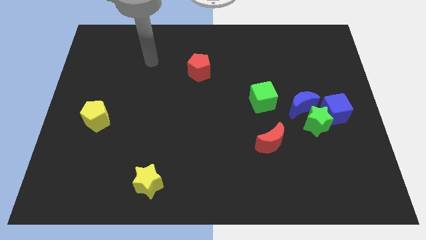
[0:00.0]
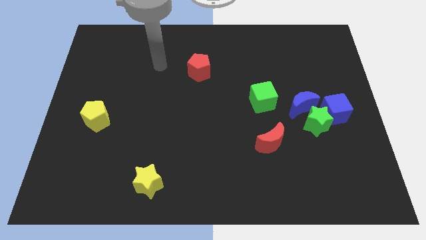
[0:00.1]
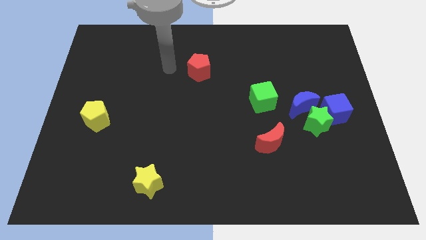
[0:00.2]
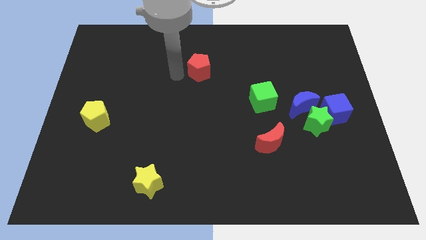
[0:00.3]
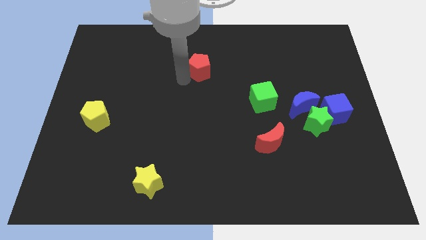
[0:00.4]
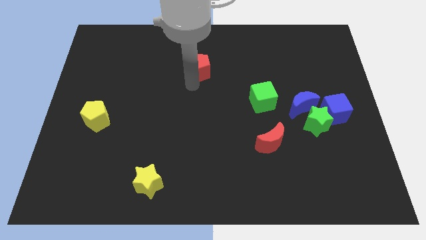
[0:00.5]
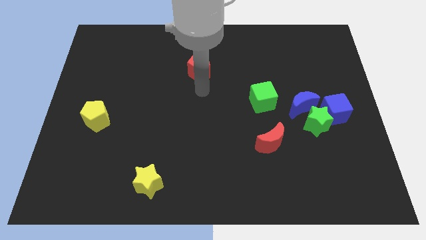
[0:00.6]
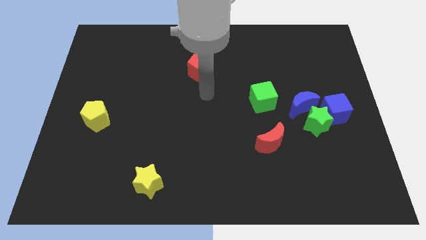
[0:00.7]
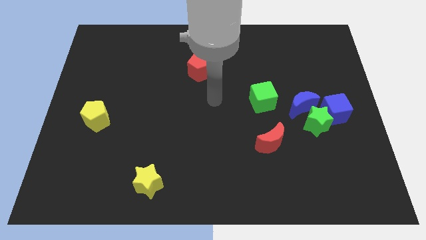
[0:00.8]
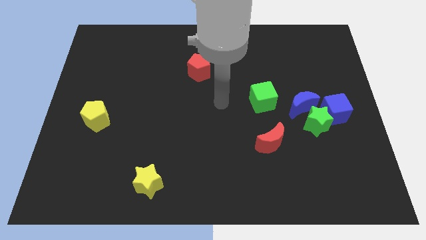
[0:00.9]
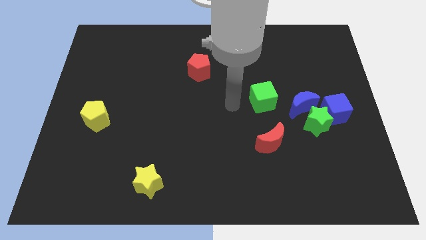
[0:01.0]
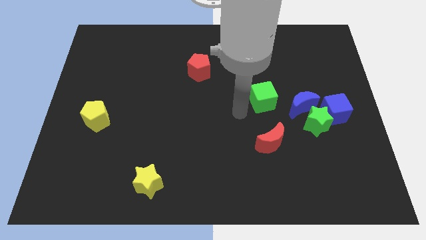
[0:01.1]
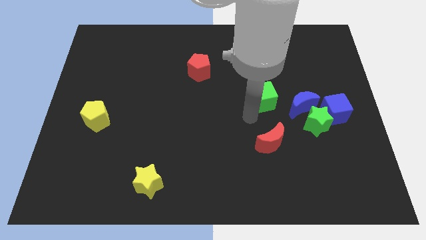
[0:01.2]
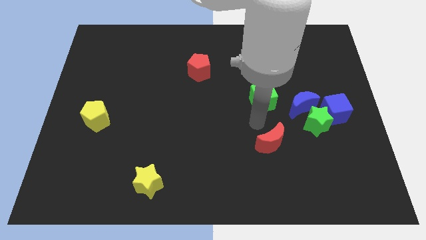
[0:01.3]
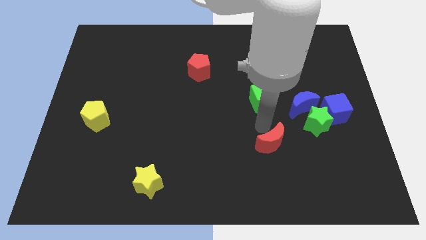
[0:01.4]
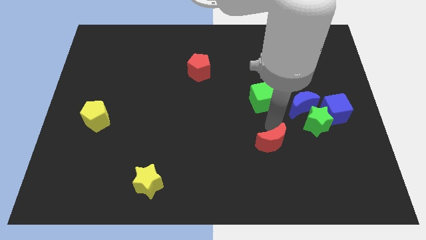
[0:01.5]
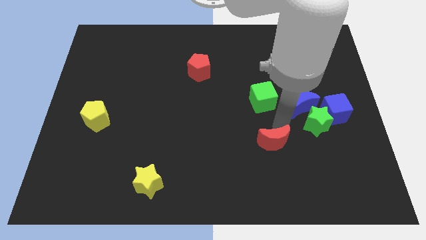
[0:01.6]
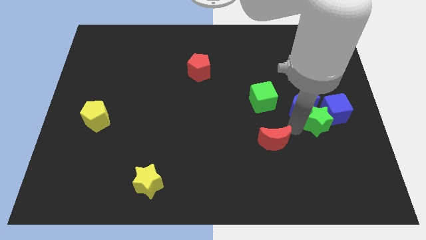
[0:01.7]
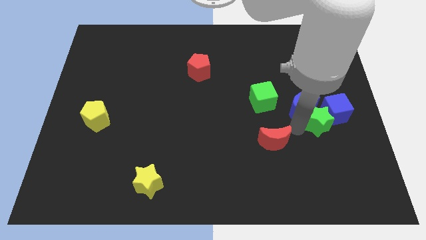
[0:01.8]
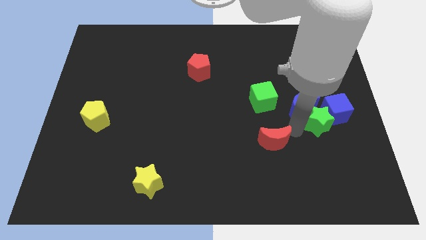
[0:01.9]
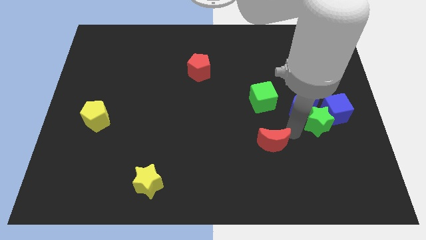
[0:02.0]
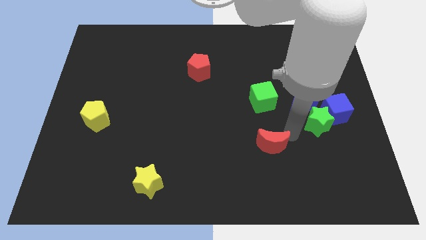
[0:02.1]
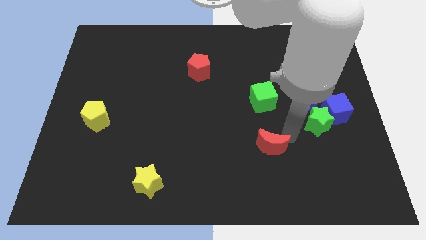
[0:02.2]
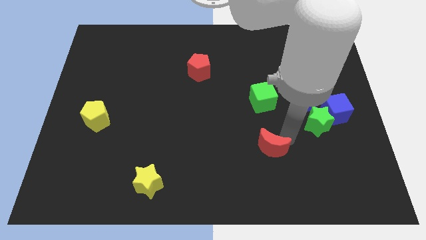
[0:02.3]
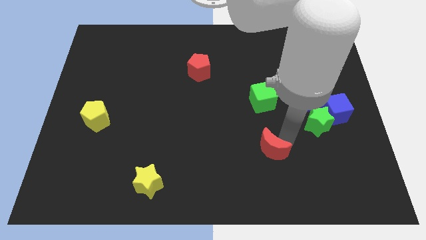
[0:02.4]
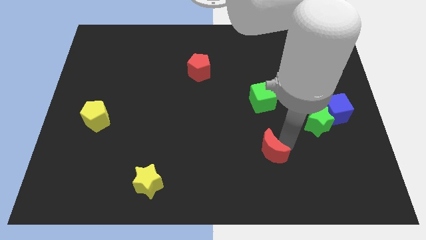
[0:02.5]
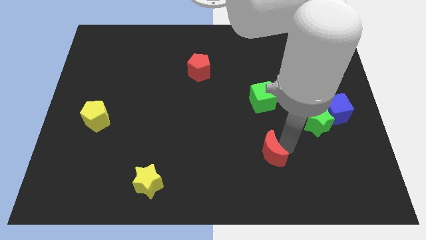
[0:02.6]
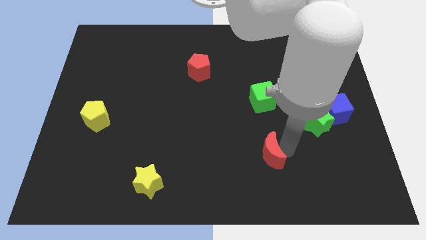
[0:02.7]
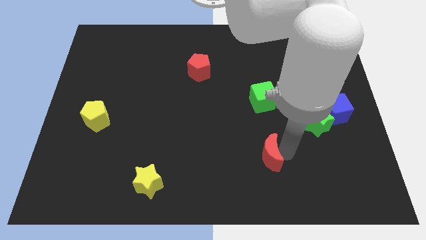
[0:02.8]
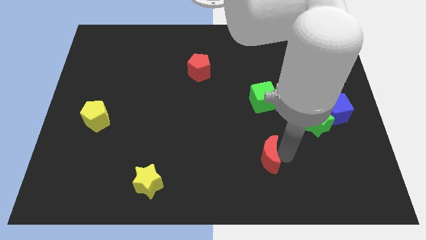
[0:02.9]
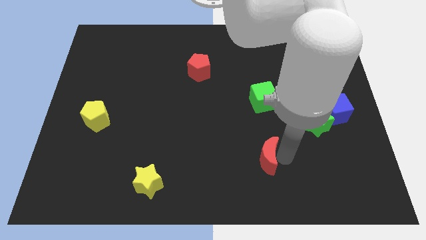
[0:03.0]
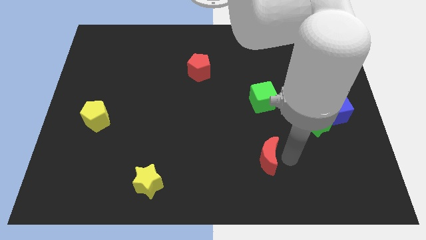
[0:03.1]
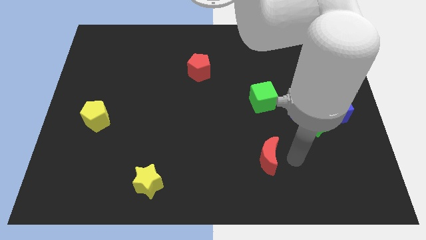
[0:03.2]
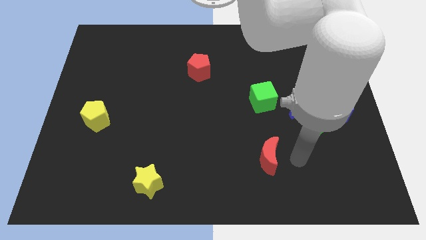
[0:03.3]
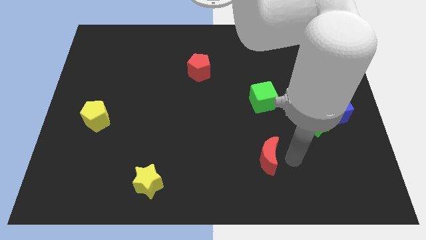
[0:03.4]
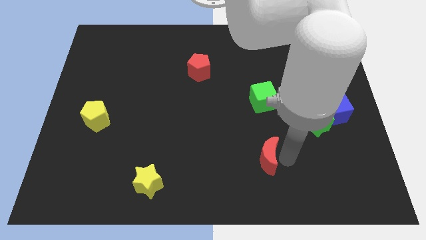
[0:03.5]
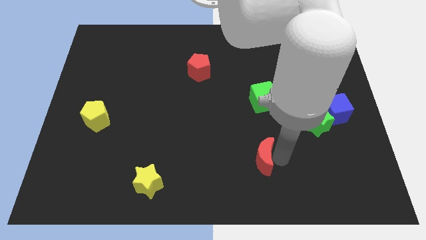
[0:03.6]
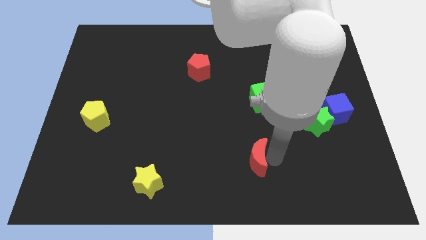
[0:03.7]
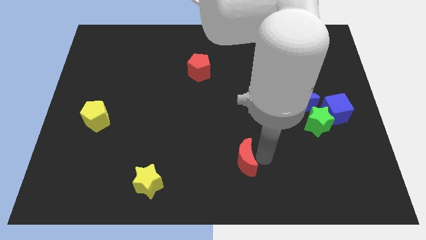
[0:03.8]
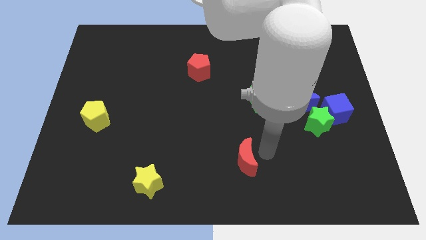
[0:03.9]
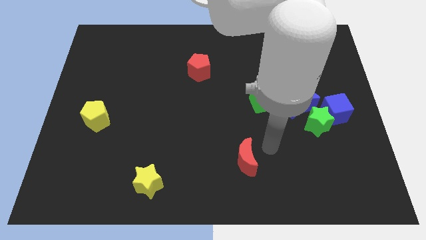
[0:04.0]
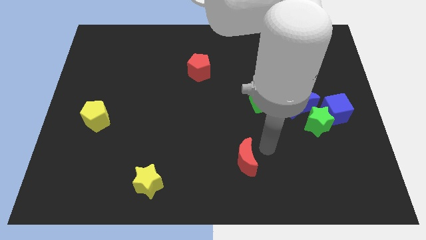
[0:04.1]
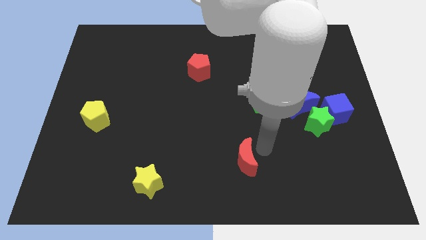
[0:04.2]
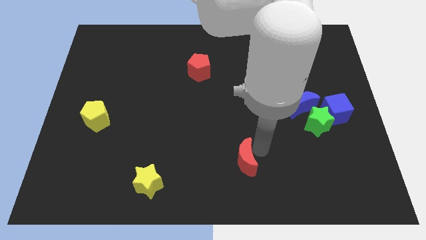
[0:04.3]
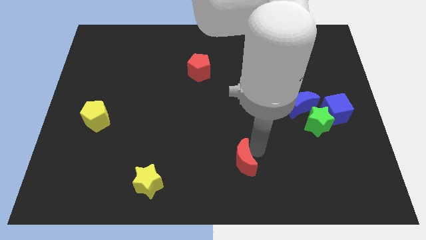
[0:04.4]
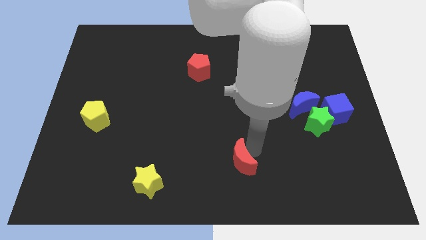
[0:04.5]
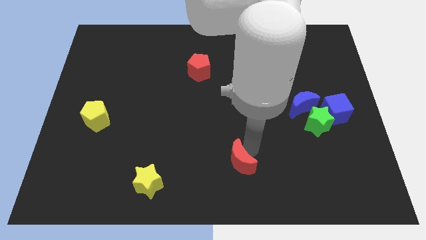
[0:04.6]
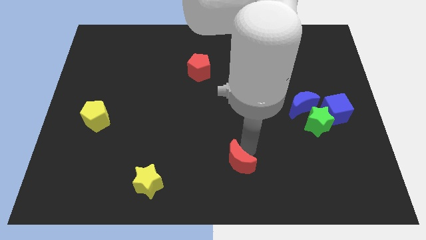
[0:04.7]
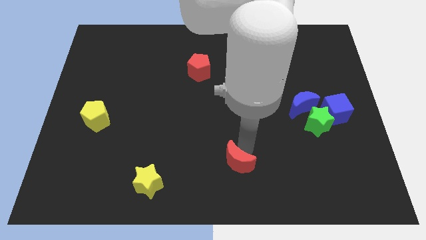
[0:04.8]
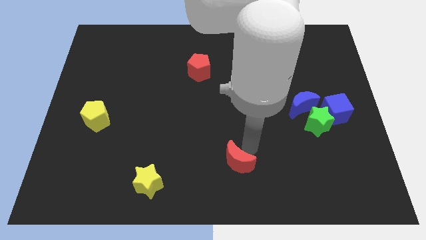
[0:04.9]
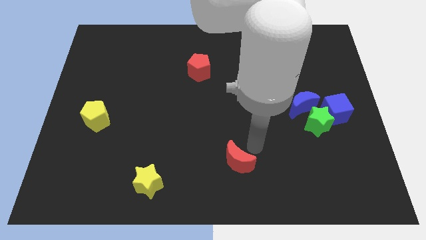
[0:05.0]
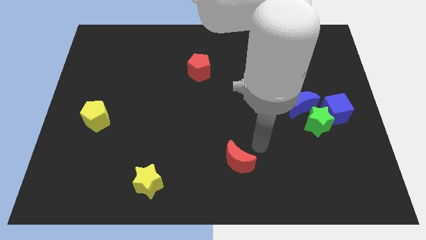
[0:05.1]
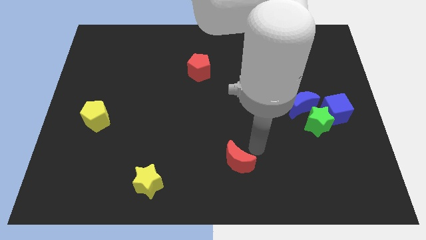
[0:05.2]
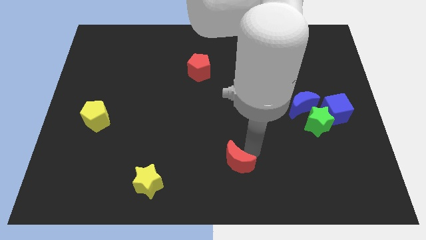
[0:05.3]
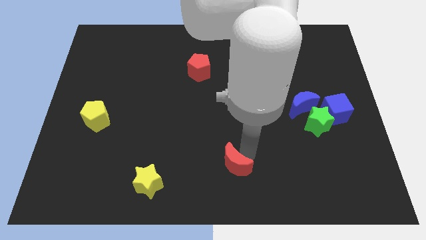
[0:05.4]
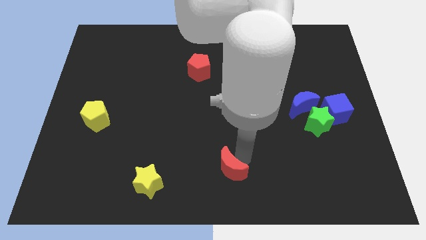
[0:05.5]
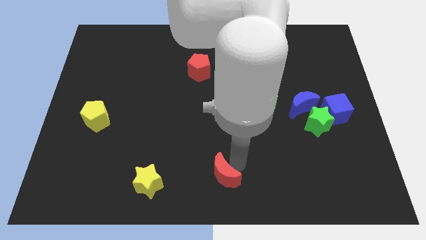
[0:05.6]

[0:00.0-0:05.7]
move the red moon right of the yellow star

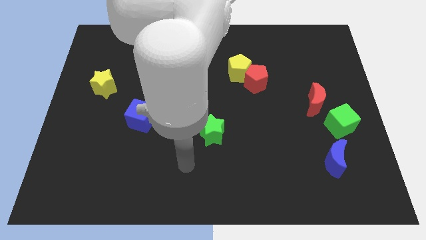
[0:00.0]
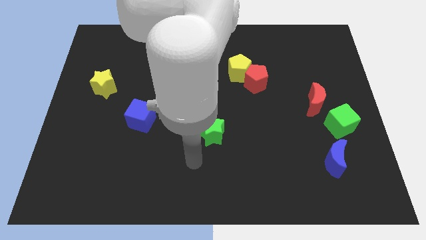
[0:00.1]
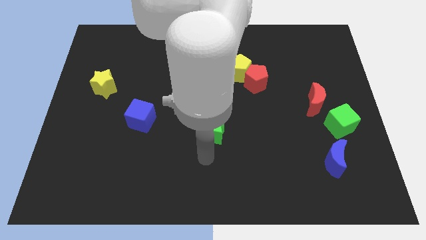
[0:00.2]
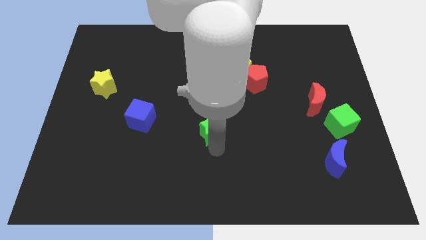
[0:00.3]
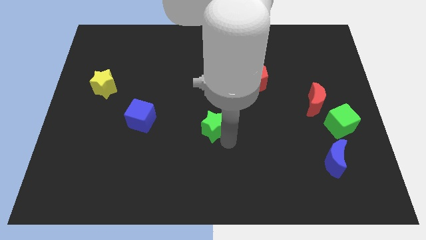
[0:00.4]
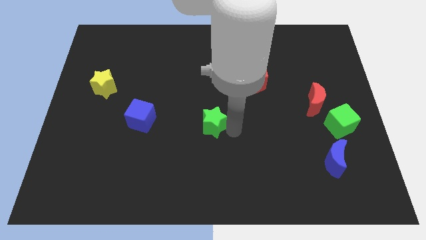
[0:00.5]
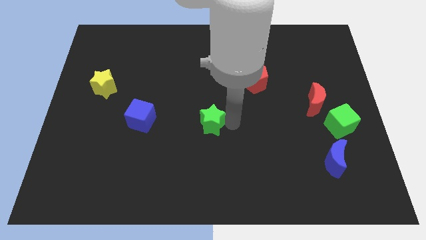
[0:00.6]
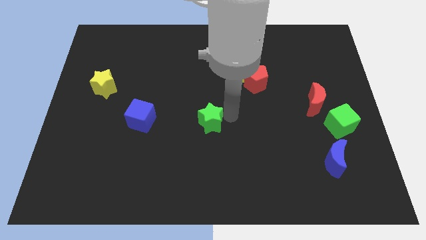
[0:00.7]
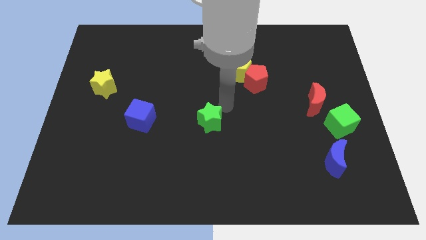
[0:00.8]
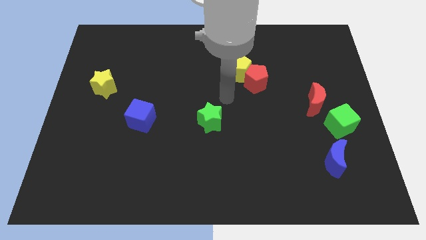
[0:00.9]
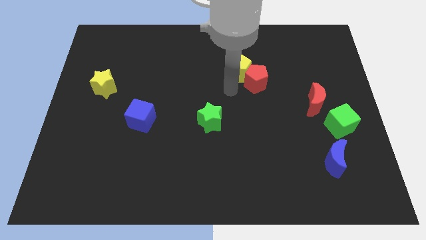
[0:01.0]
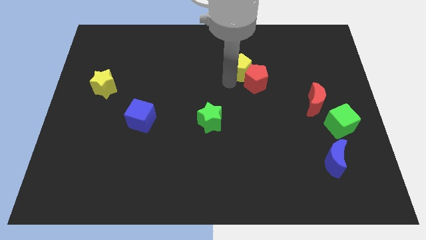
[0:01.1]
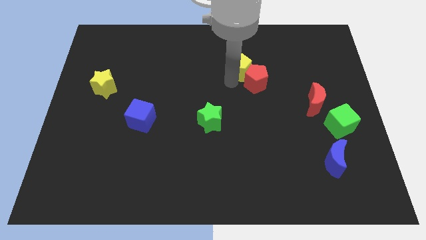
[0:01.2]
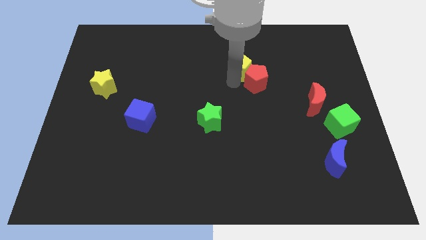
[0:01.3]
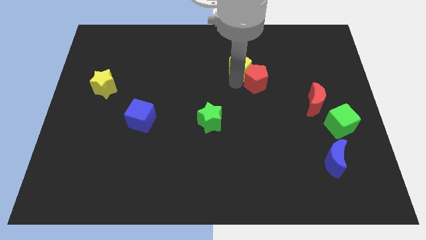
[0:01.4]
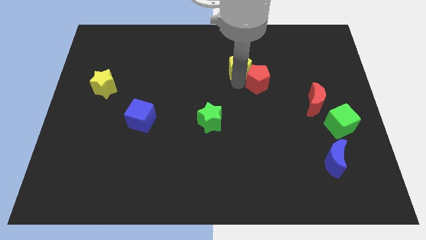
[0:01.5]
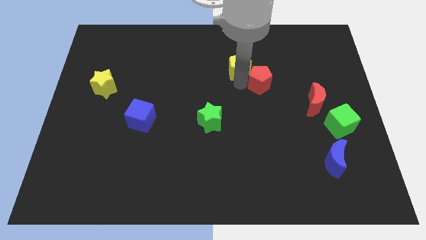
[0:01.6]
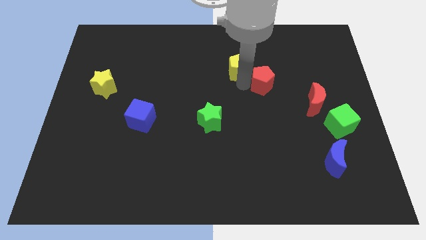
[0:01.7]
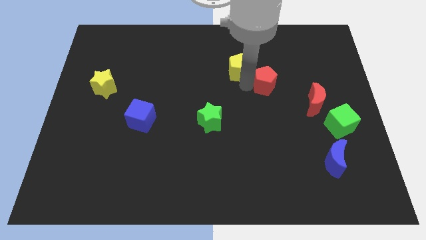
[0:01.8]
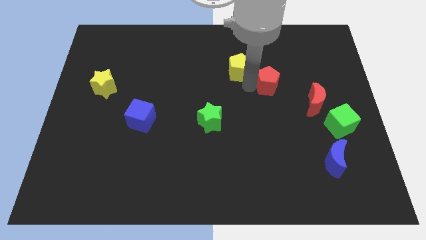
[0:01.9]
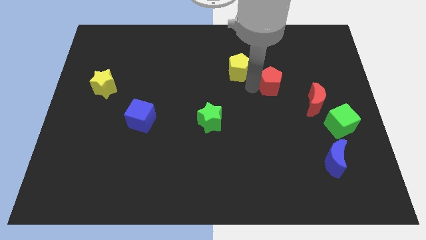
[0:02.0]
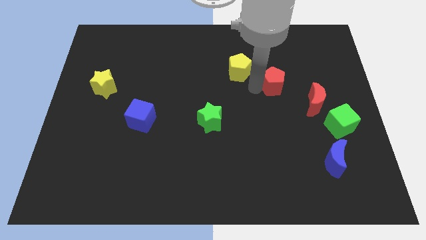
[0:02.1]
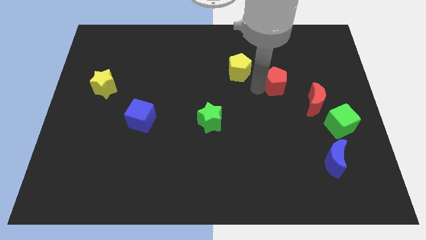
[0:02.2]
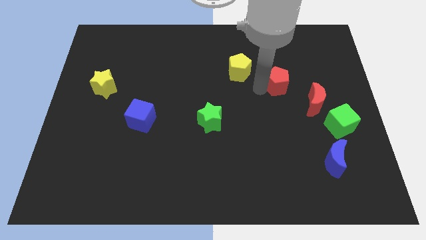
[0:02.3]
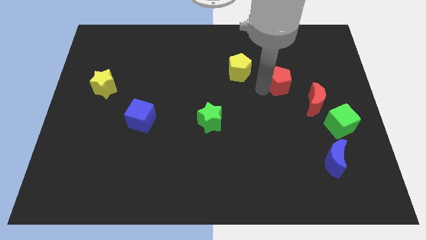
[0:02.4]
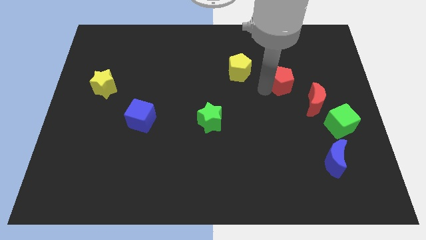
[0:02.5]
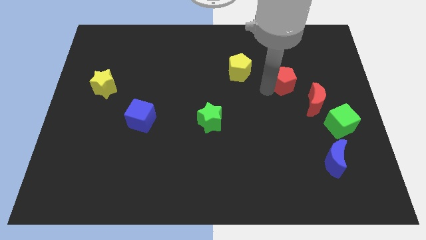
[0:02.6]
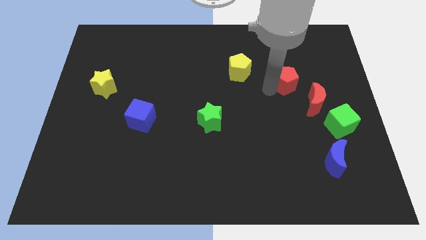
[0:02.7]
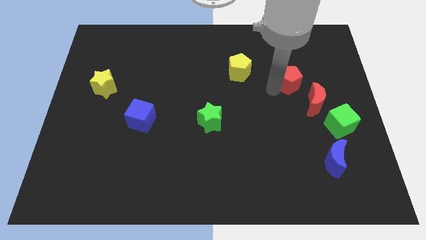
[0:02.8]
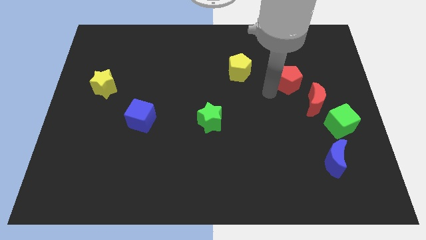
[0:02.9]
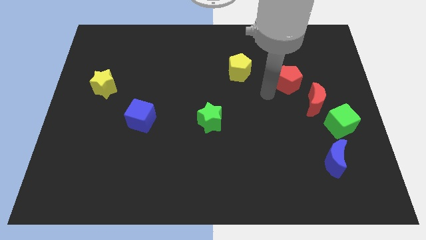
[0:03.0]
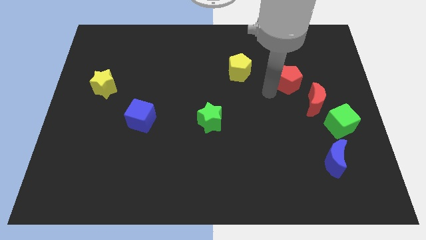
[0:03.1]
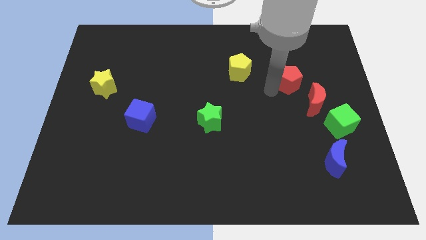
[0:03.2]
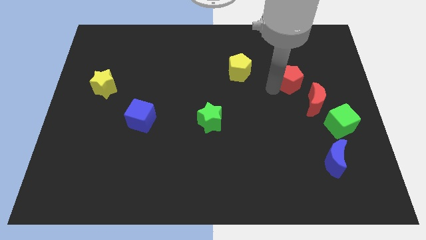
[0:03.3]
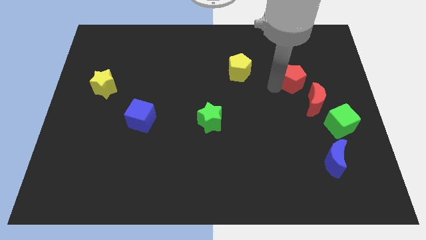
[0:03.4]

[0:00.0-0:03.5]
push the red pentagon to the top of the red moon
